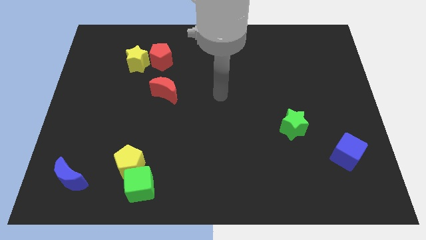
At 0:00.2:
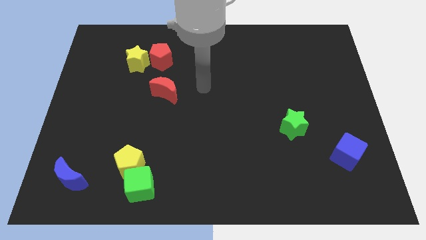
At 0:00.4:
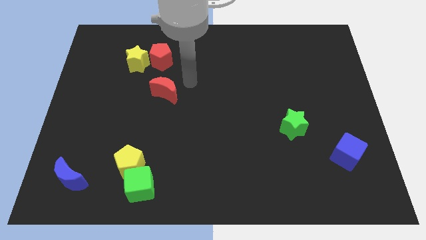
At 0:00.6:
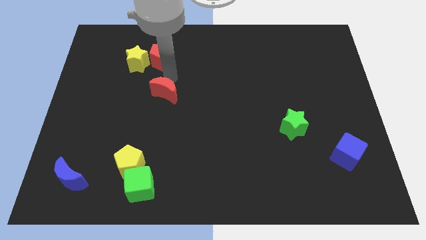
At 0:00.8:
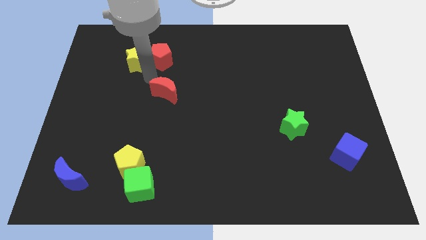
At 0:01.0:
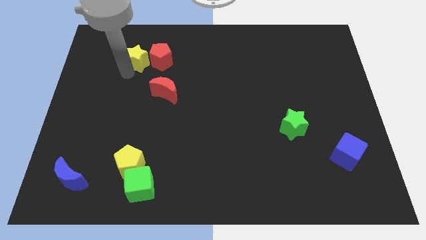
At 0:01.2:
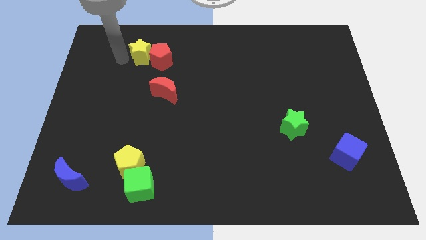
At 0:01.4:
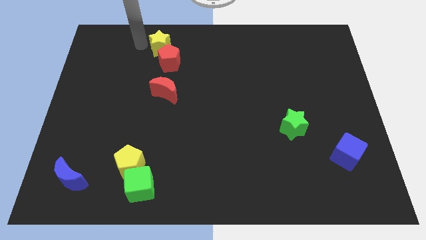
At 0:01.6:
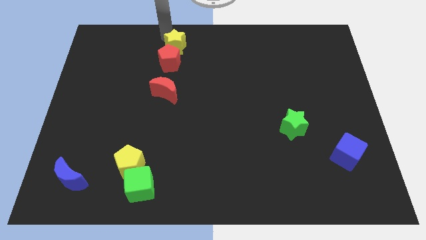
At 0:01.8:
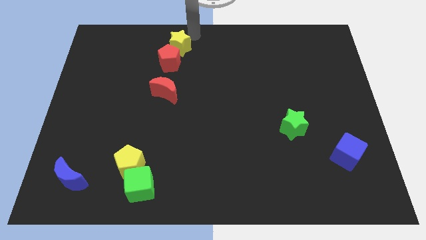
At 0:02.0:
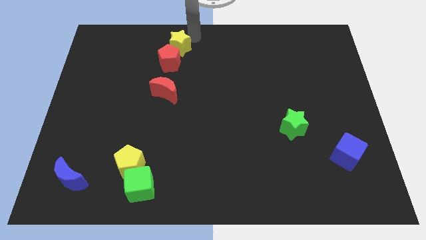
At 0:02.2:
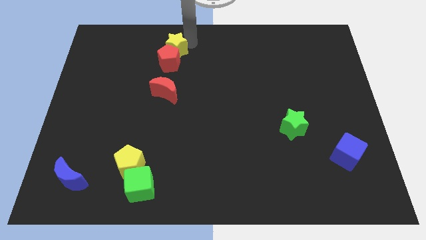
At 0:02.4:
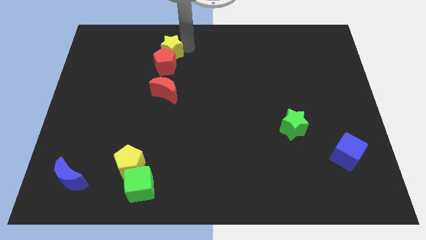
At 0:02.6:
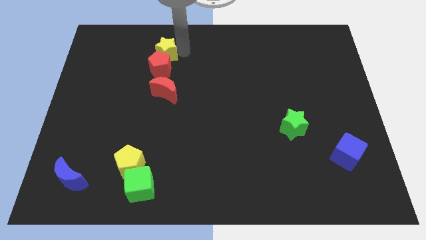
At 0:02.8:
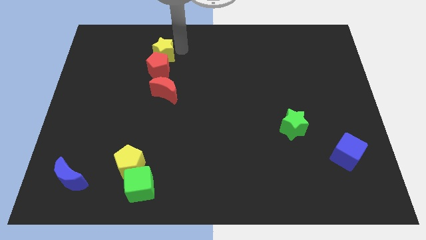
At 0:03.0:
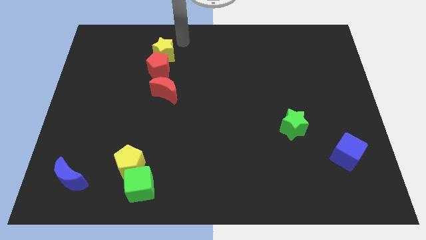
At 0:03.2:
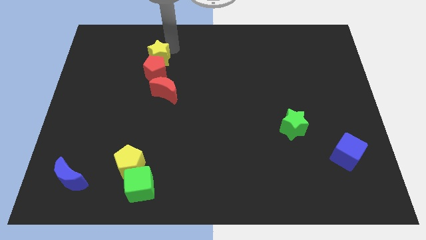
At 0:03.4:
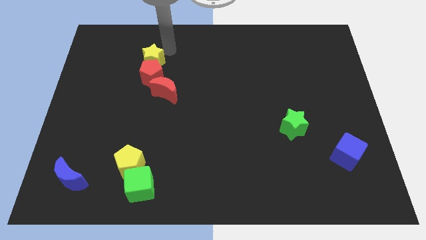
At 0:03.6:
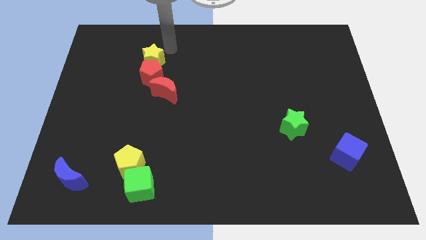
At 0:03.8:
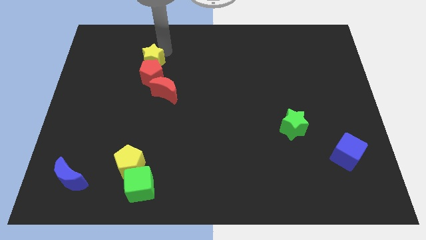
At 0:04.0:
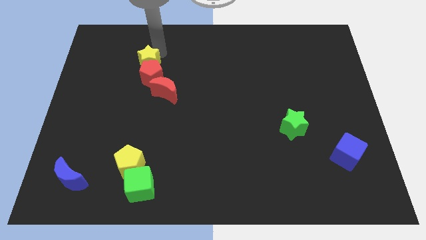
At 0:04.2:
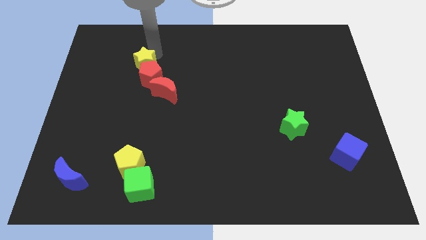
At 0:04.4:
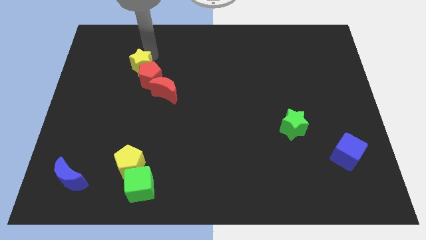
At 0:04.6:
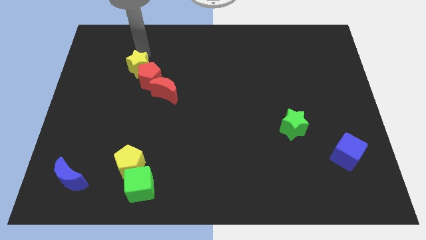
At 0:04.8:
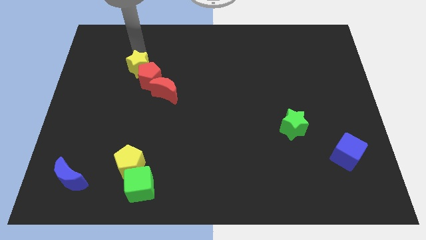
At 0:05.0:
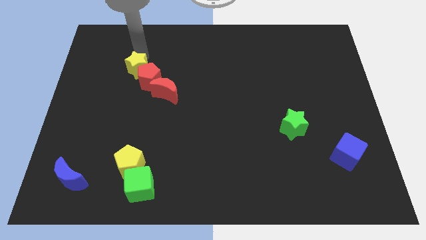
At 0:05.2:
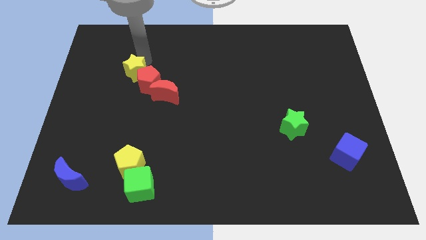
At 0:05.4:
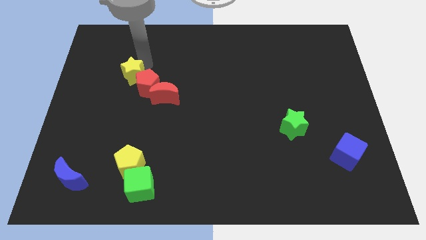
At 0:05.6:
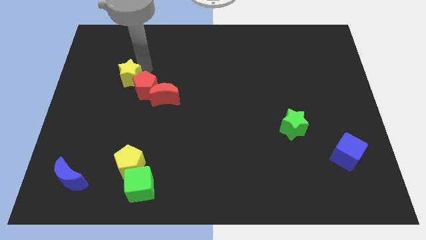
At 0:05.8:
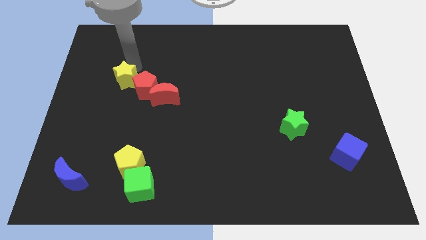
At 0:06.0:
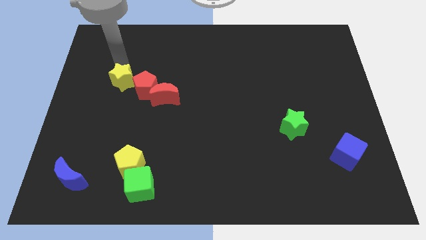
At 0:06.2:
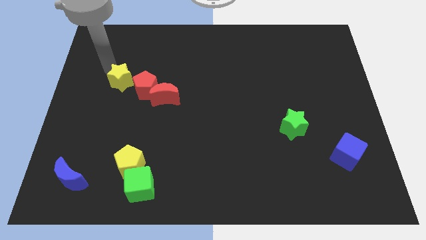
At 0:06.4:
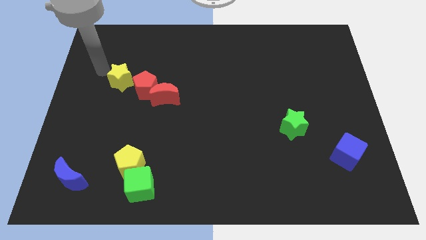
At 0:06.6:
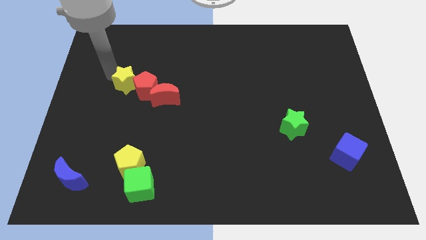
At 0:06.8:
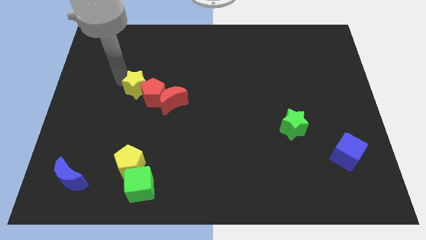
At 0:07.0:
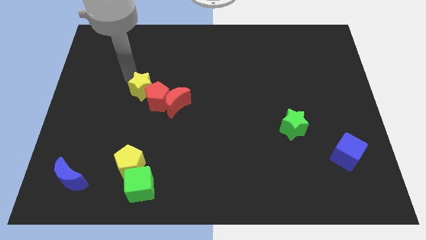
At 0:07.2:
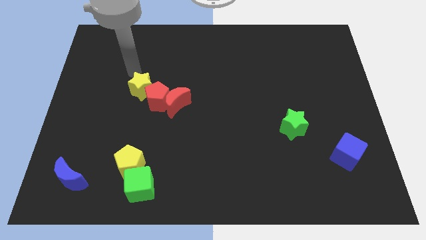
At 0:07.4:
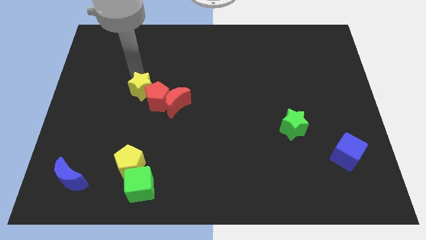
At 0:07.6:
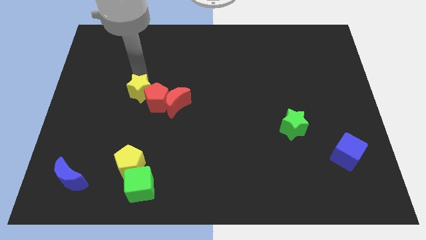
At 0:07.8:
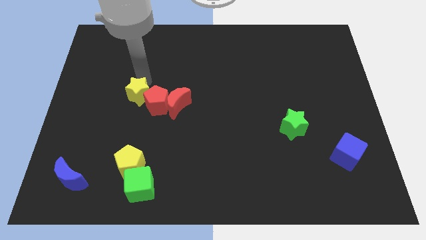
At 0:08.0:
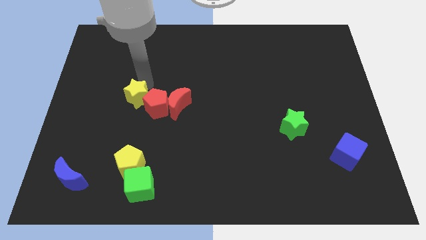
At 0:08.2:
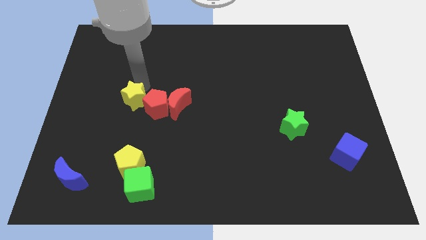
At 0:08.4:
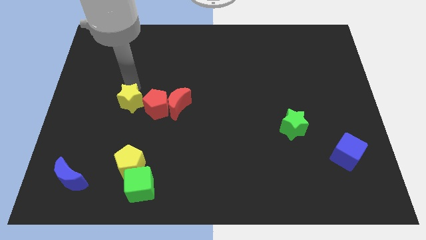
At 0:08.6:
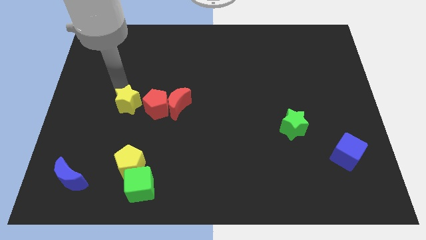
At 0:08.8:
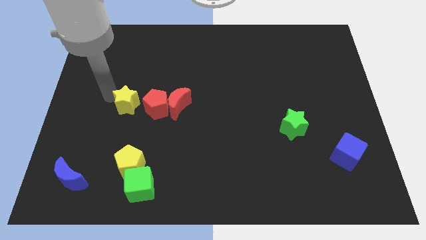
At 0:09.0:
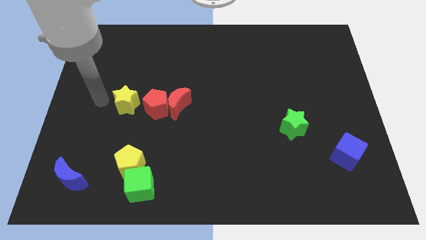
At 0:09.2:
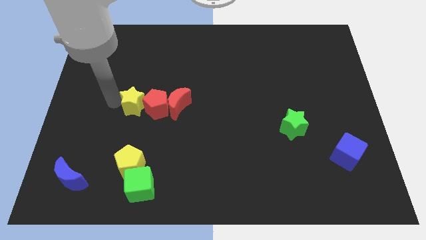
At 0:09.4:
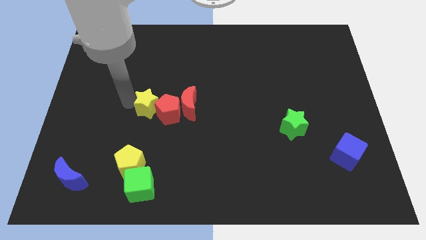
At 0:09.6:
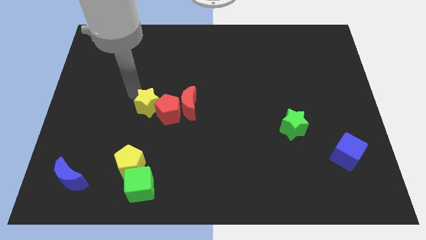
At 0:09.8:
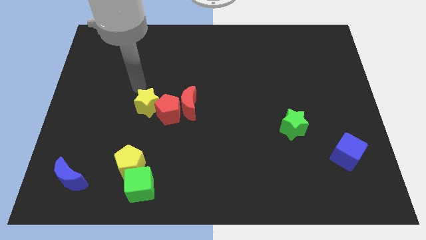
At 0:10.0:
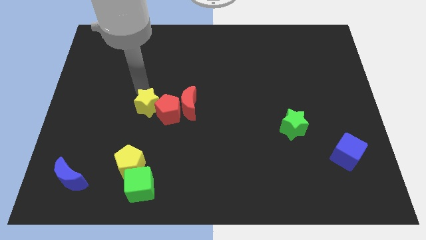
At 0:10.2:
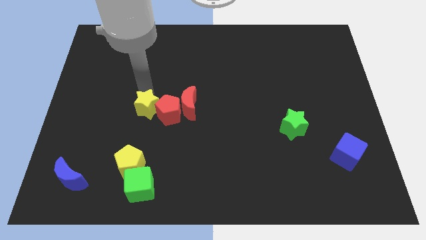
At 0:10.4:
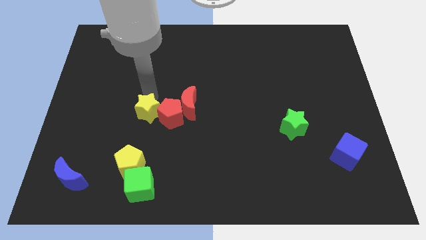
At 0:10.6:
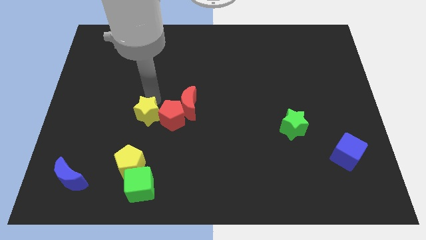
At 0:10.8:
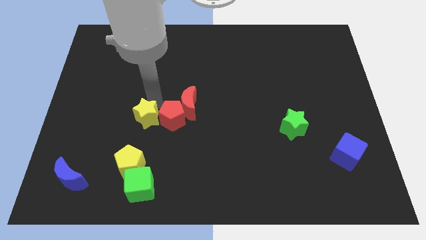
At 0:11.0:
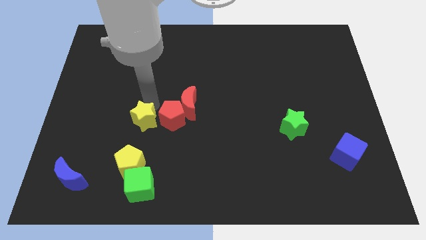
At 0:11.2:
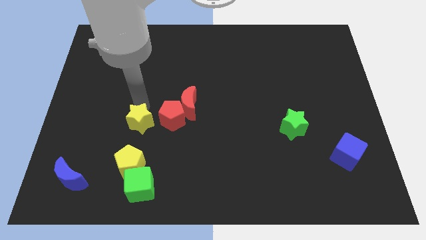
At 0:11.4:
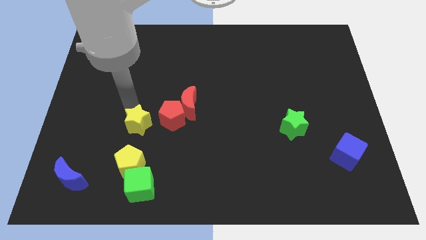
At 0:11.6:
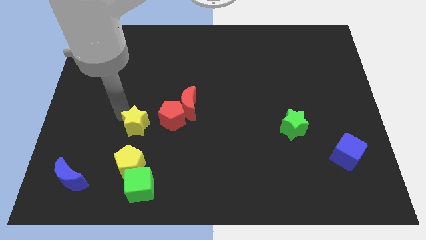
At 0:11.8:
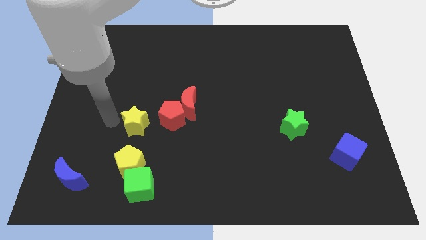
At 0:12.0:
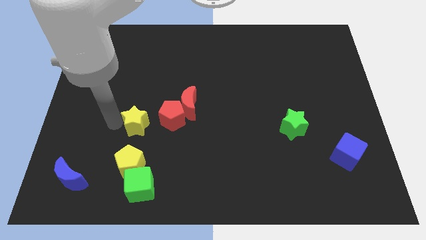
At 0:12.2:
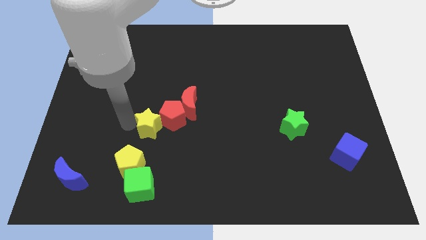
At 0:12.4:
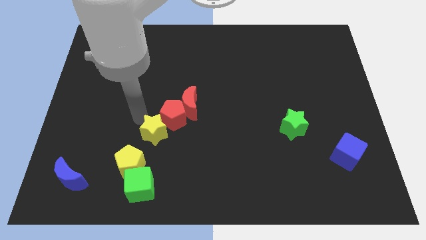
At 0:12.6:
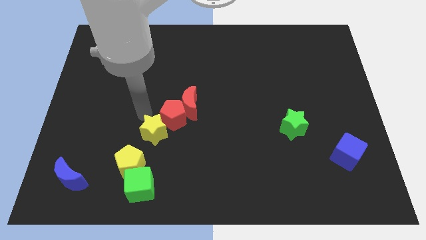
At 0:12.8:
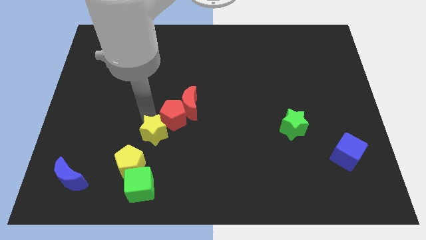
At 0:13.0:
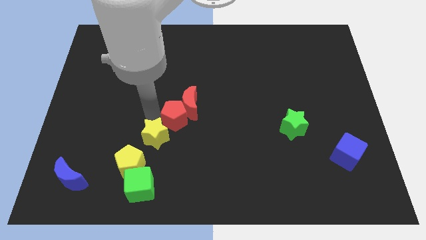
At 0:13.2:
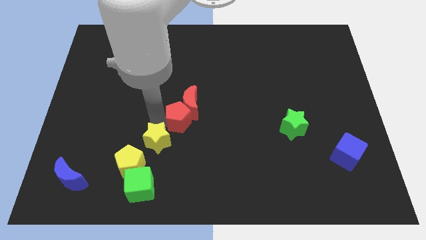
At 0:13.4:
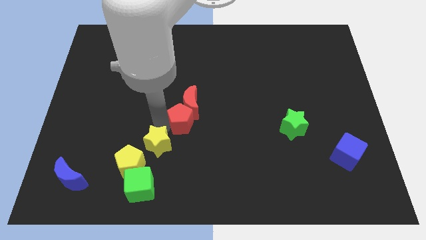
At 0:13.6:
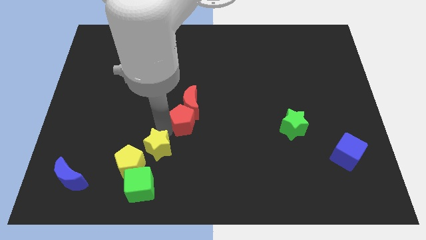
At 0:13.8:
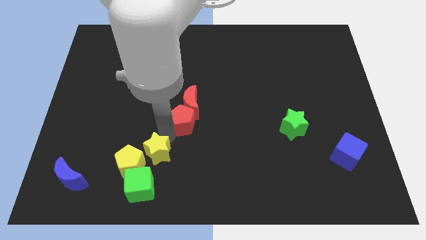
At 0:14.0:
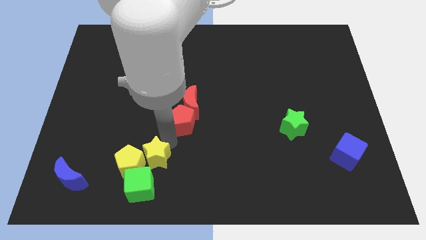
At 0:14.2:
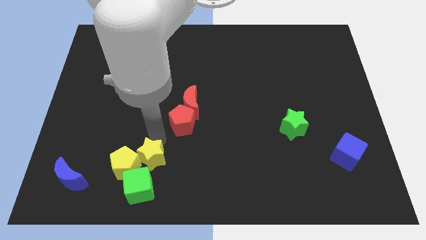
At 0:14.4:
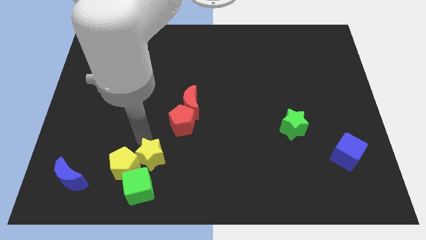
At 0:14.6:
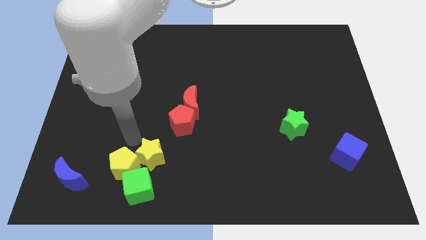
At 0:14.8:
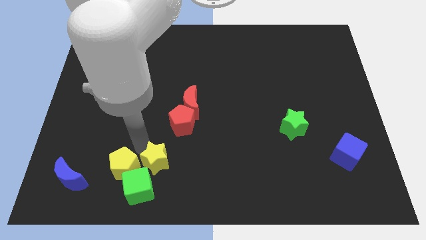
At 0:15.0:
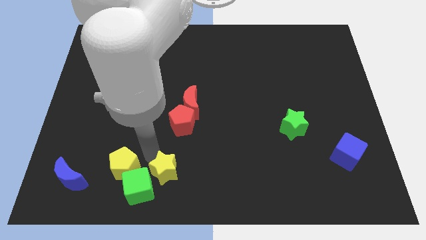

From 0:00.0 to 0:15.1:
put the yellow star to the bottom
